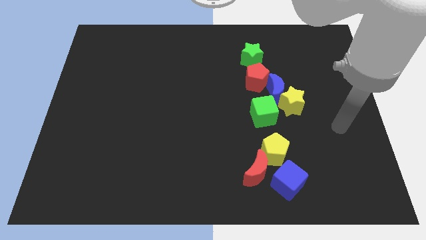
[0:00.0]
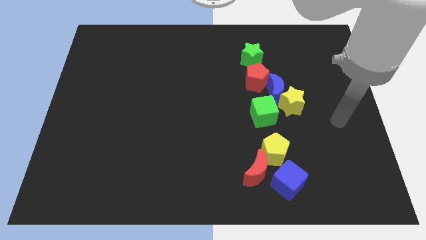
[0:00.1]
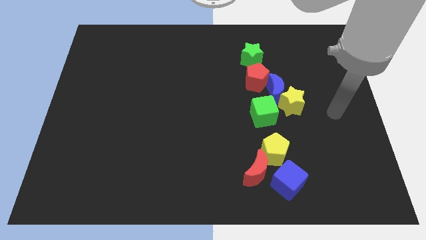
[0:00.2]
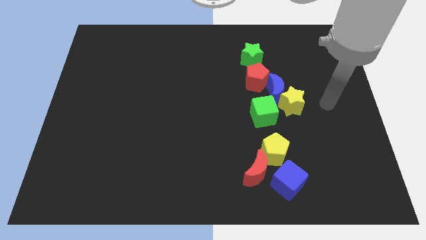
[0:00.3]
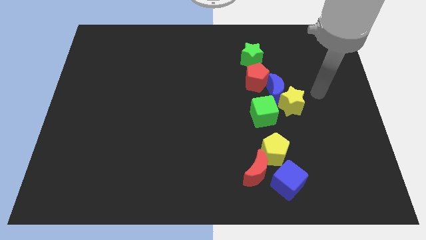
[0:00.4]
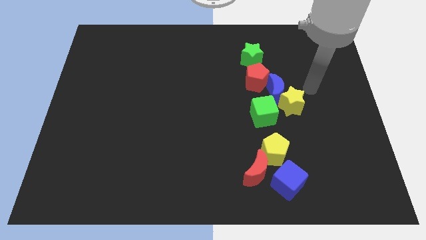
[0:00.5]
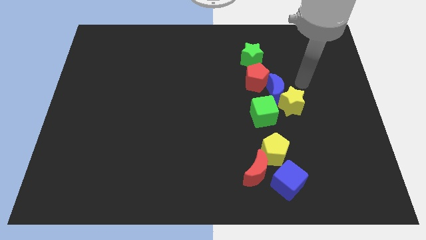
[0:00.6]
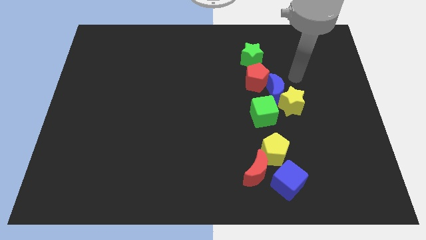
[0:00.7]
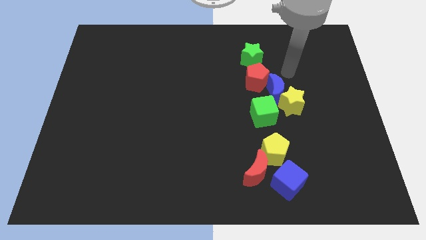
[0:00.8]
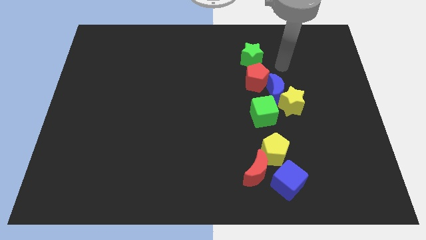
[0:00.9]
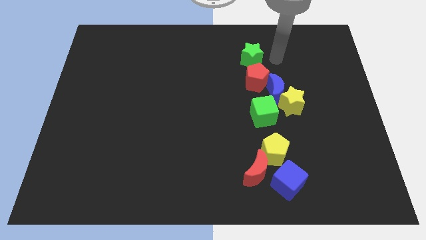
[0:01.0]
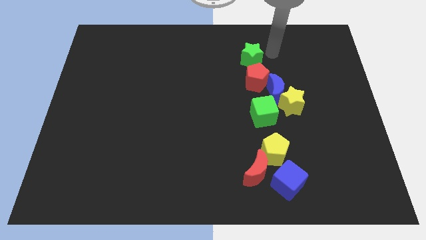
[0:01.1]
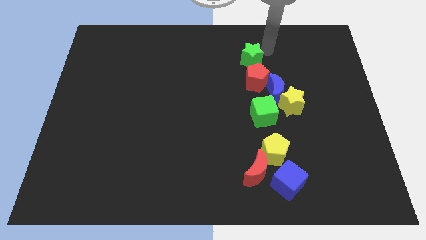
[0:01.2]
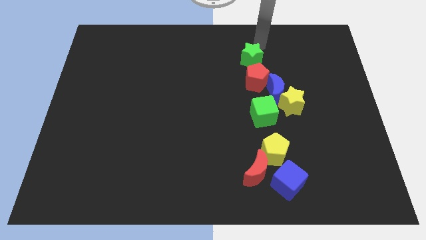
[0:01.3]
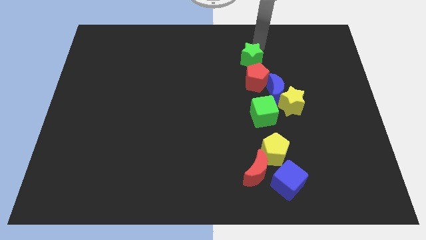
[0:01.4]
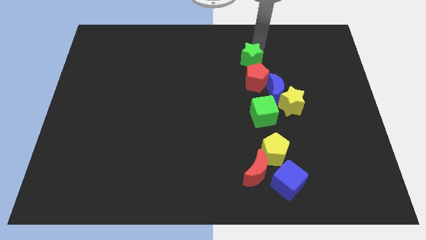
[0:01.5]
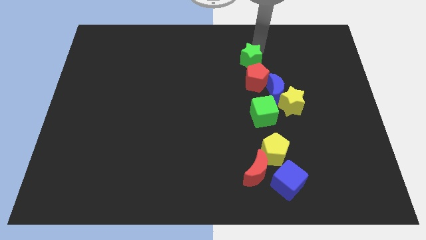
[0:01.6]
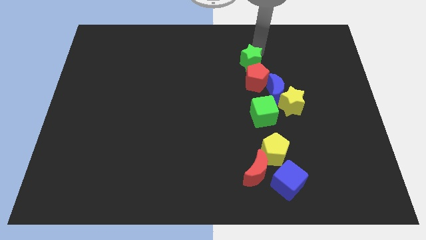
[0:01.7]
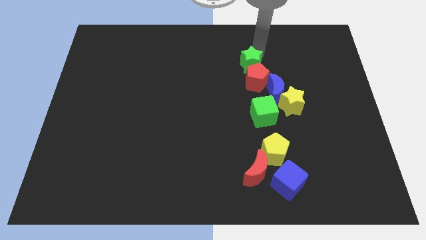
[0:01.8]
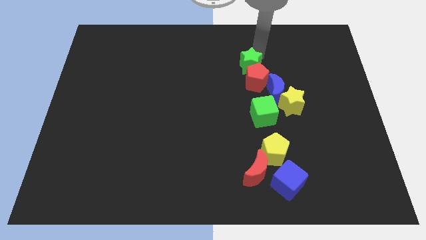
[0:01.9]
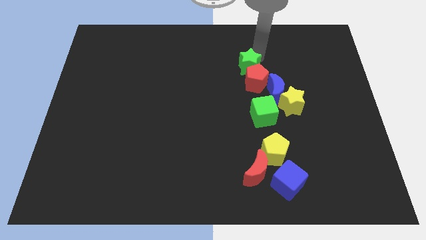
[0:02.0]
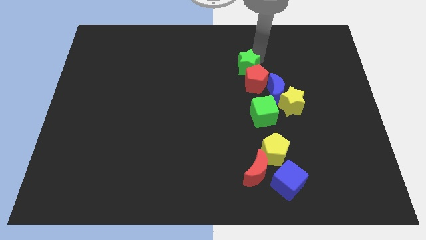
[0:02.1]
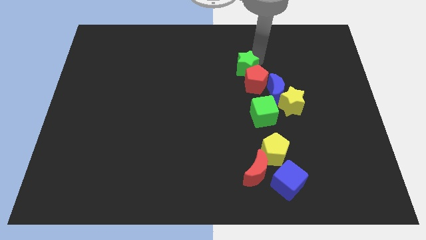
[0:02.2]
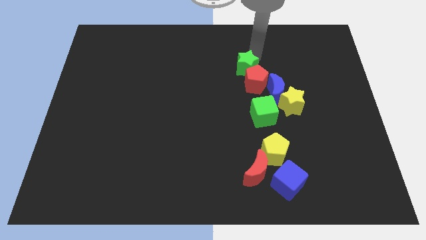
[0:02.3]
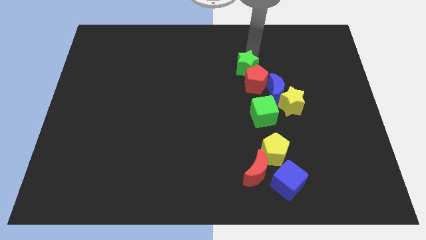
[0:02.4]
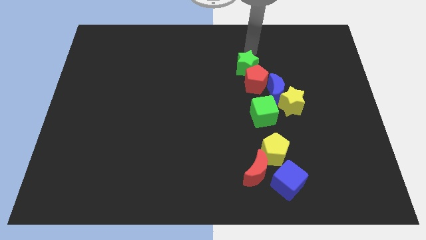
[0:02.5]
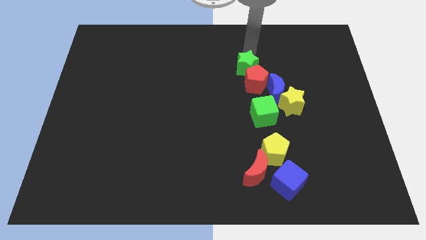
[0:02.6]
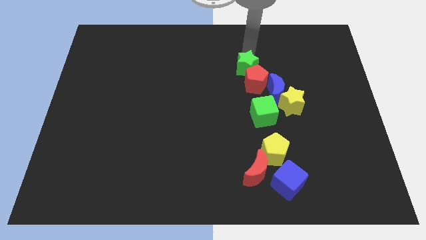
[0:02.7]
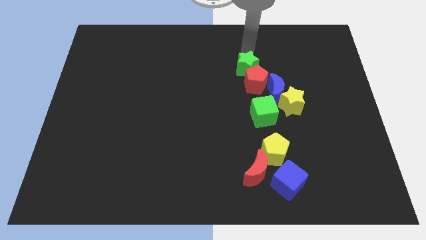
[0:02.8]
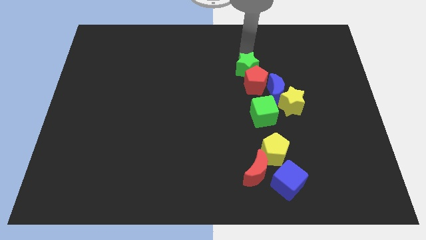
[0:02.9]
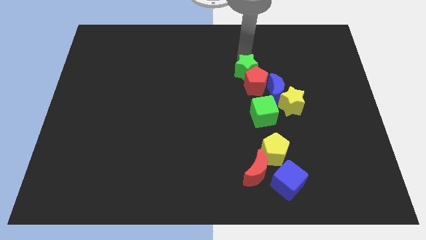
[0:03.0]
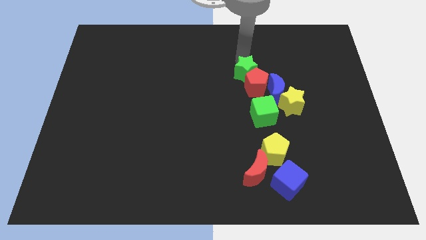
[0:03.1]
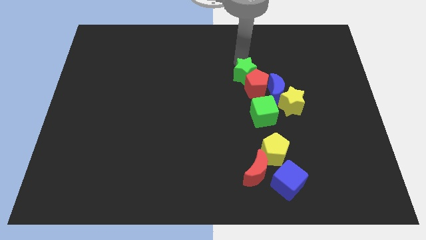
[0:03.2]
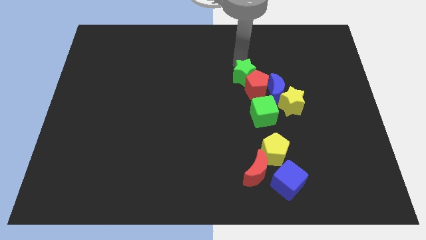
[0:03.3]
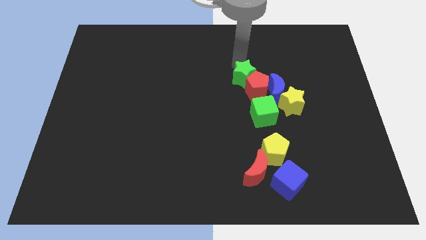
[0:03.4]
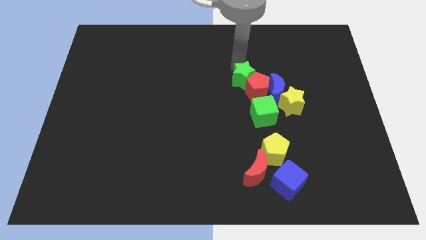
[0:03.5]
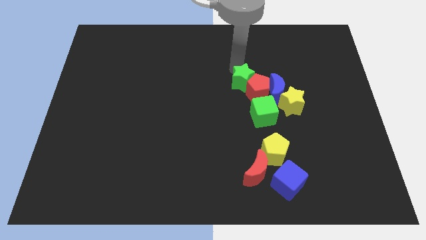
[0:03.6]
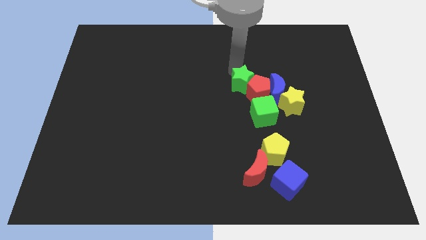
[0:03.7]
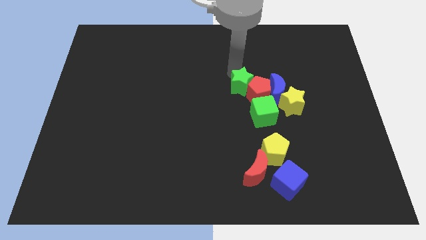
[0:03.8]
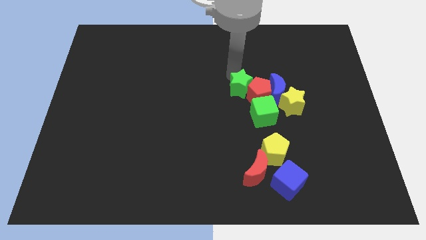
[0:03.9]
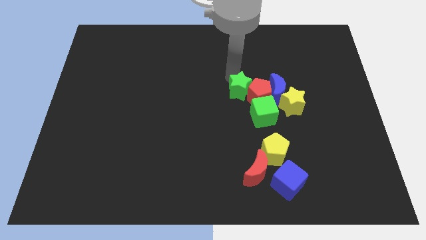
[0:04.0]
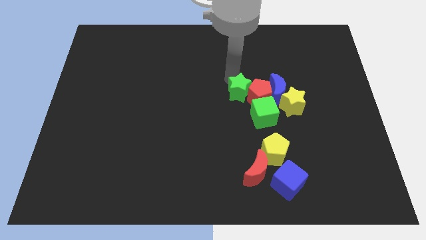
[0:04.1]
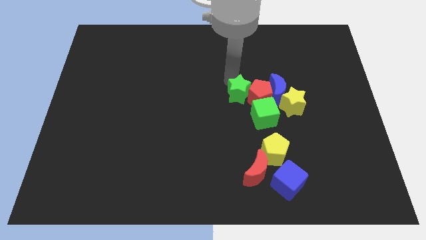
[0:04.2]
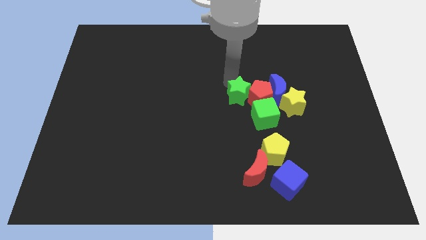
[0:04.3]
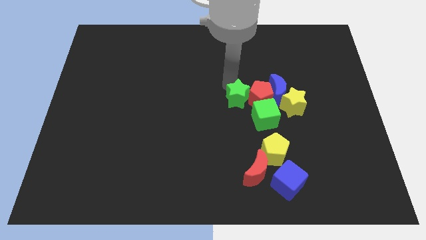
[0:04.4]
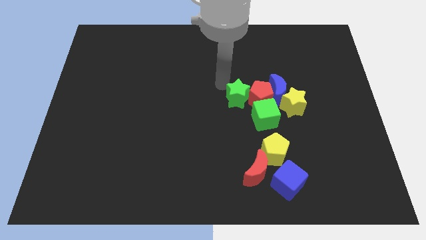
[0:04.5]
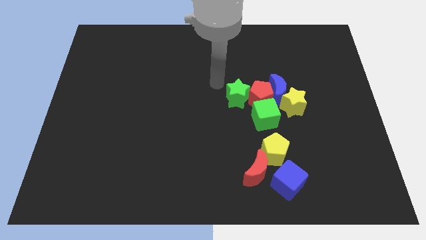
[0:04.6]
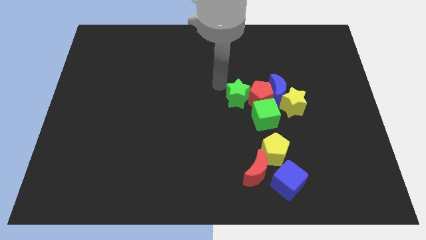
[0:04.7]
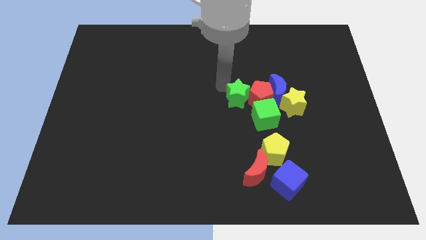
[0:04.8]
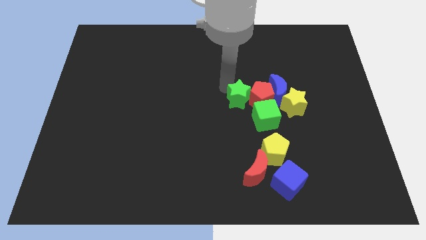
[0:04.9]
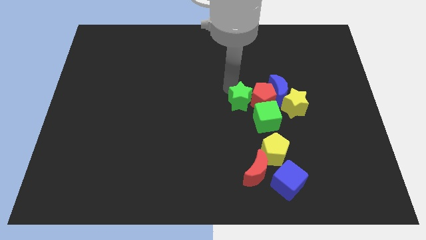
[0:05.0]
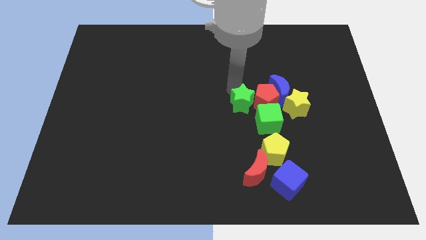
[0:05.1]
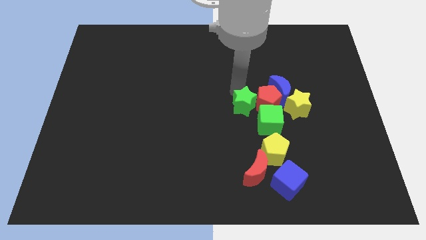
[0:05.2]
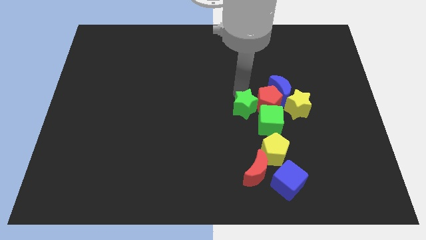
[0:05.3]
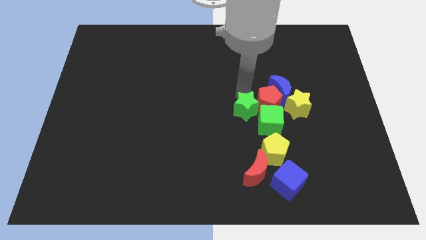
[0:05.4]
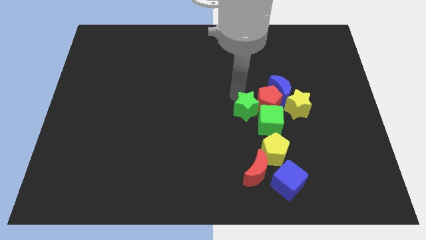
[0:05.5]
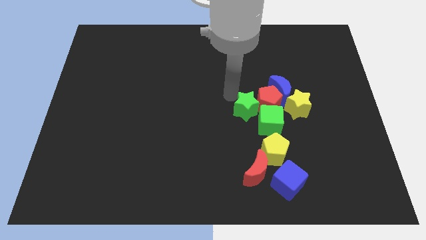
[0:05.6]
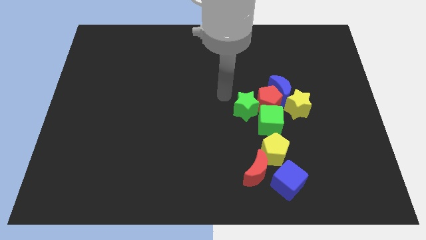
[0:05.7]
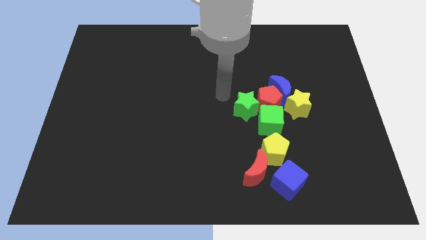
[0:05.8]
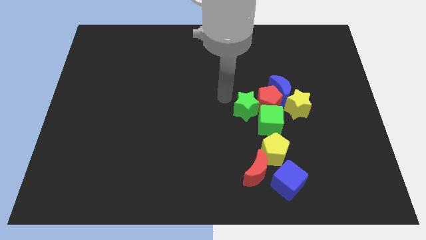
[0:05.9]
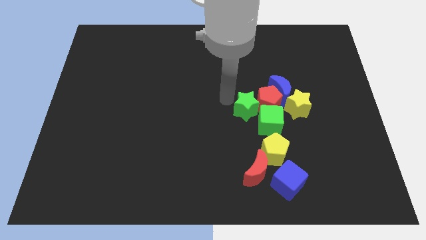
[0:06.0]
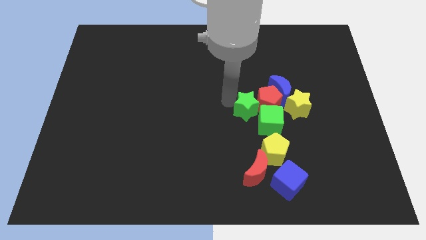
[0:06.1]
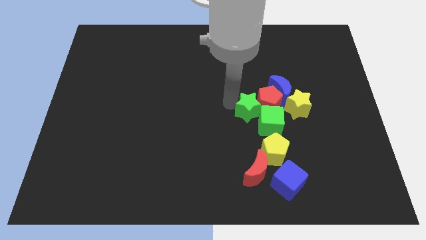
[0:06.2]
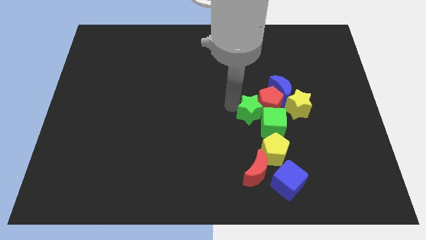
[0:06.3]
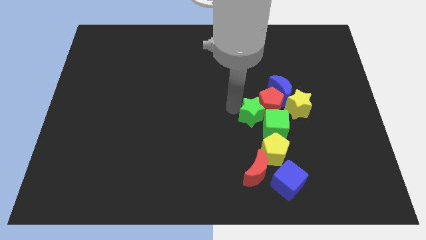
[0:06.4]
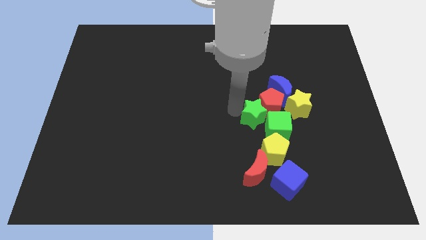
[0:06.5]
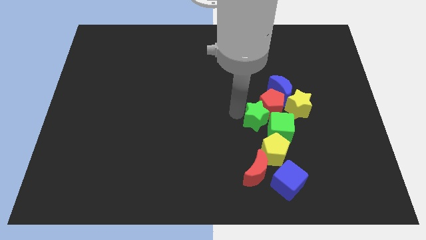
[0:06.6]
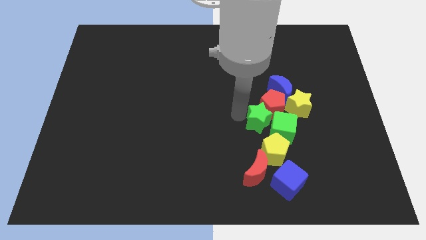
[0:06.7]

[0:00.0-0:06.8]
slide the green star close to the green cube
